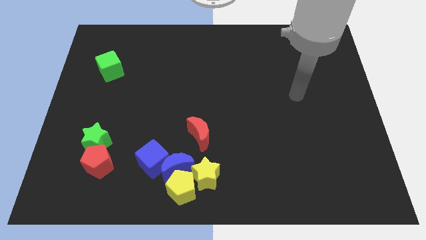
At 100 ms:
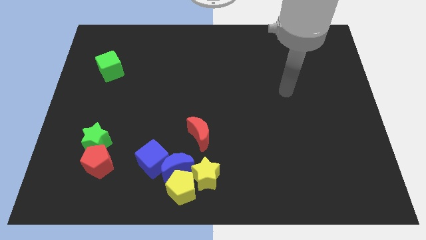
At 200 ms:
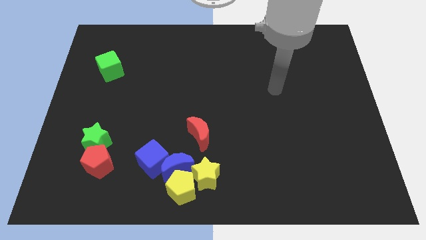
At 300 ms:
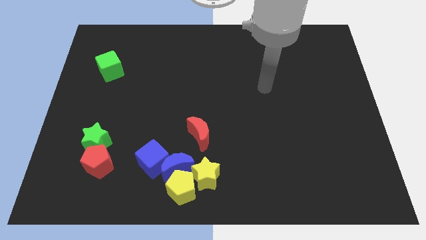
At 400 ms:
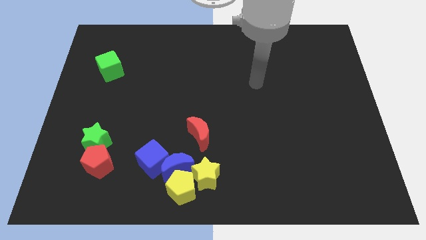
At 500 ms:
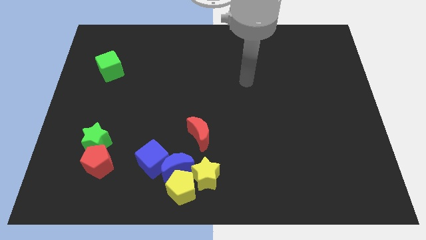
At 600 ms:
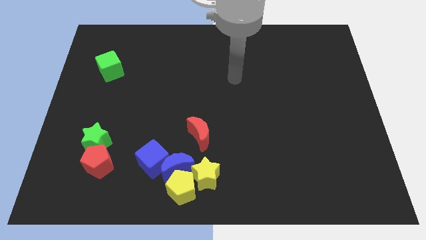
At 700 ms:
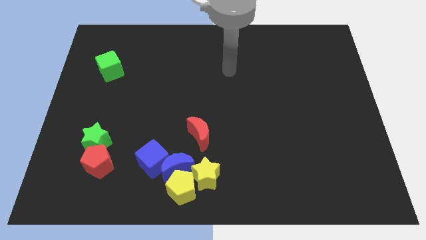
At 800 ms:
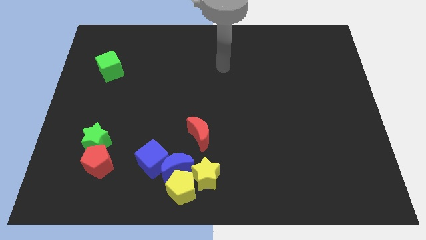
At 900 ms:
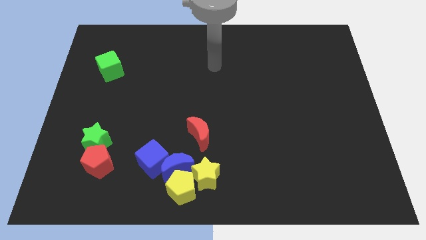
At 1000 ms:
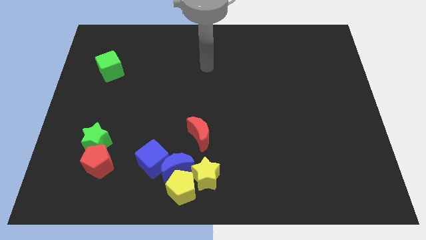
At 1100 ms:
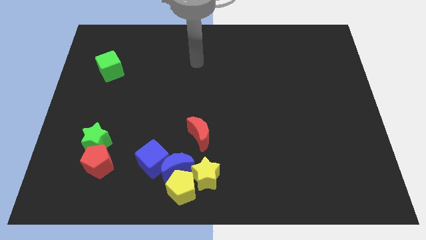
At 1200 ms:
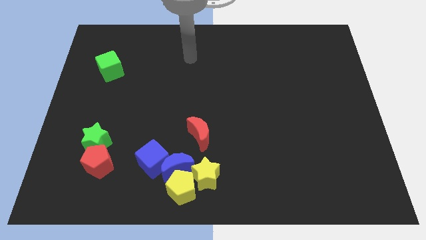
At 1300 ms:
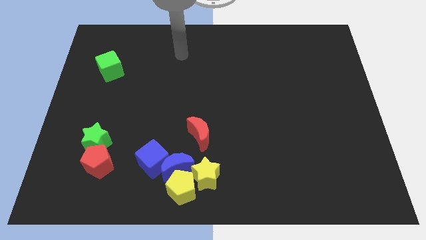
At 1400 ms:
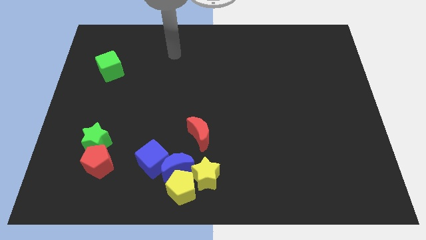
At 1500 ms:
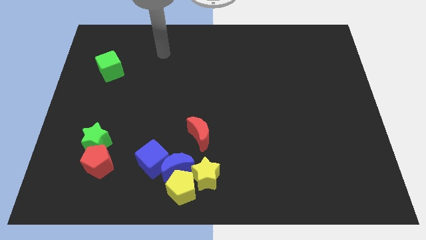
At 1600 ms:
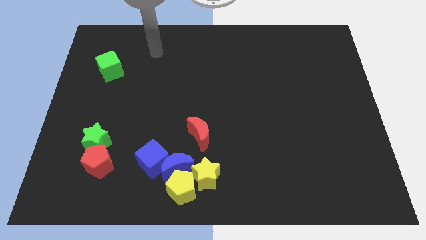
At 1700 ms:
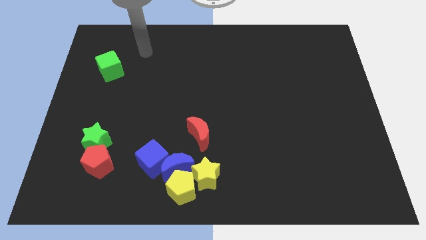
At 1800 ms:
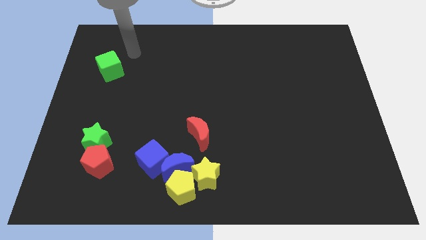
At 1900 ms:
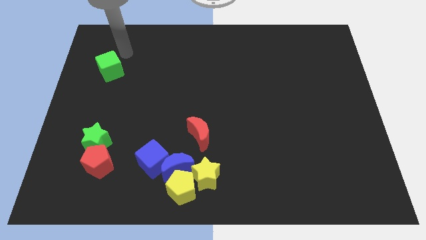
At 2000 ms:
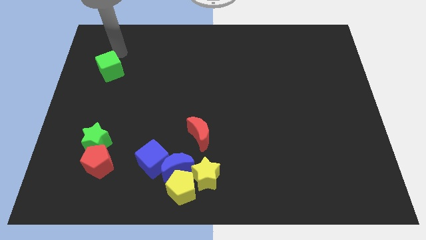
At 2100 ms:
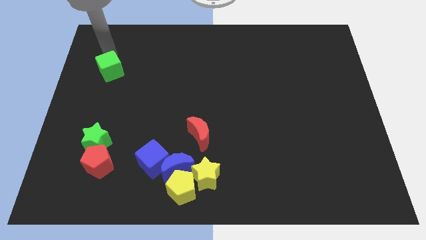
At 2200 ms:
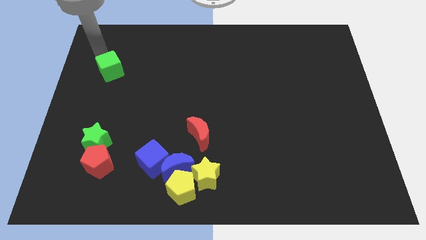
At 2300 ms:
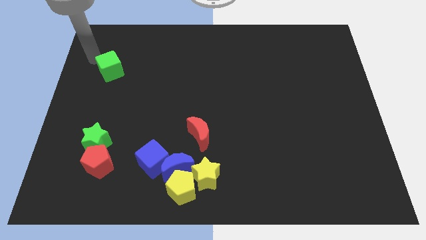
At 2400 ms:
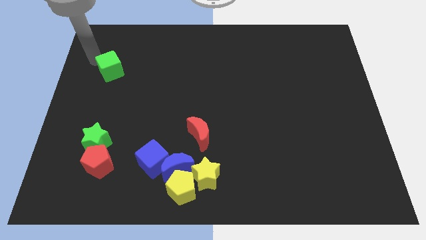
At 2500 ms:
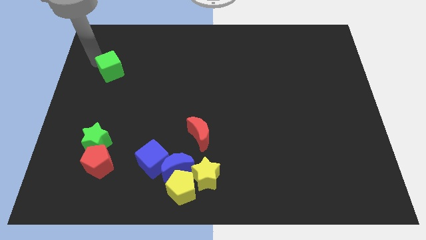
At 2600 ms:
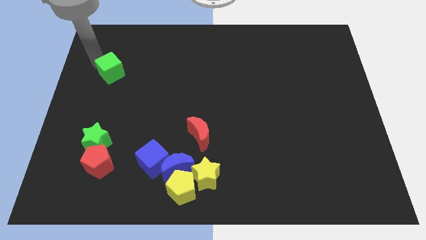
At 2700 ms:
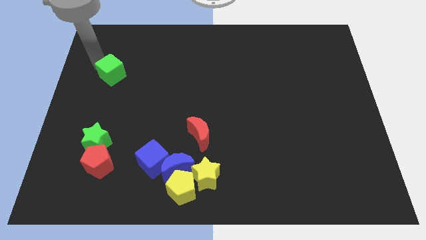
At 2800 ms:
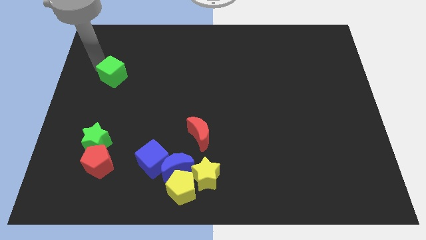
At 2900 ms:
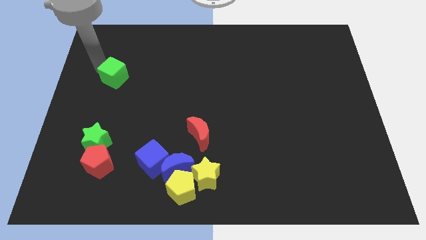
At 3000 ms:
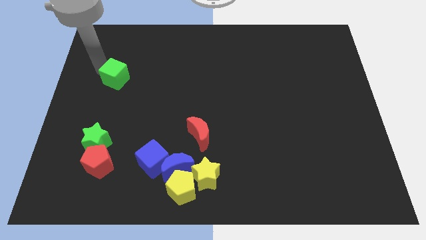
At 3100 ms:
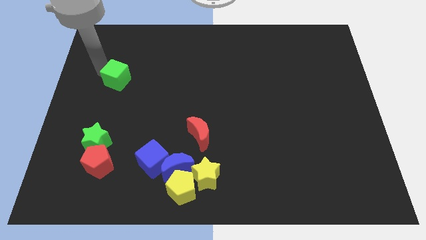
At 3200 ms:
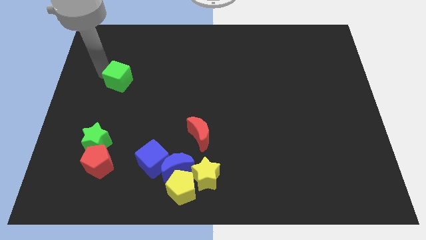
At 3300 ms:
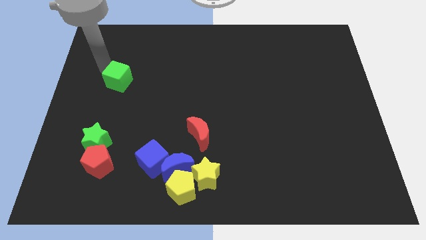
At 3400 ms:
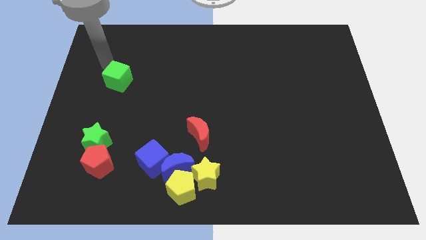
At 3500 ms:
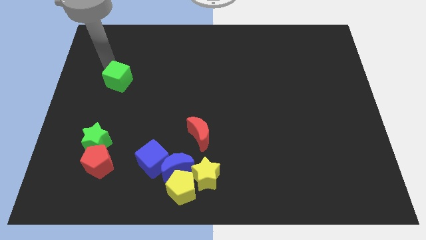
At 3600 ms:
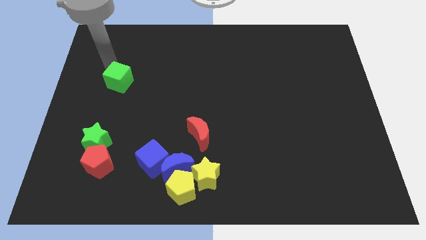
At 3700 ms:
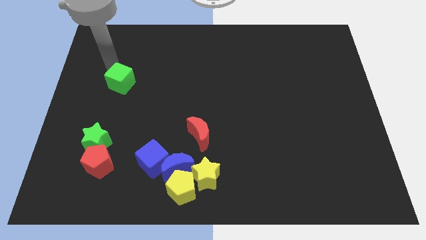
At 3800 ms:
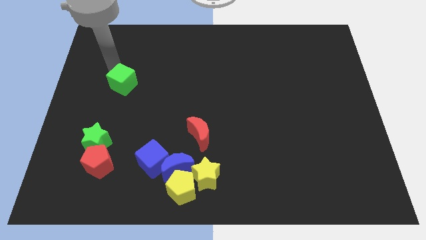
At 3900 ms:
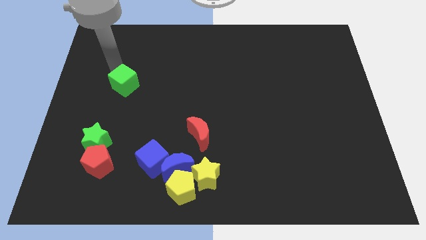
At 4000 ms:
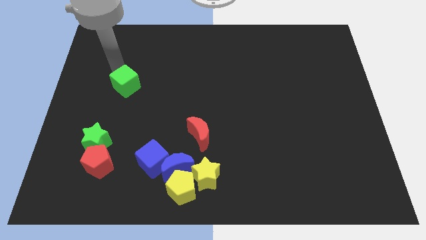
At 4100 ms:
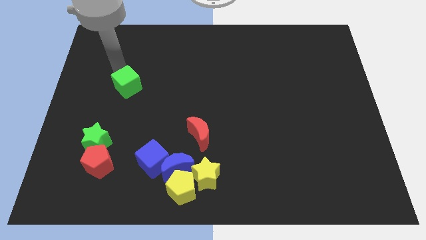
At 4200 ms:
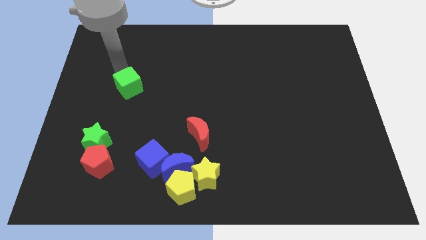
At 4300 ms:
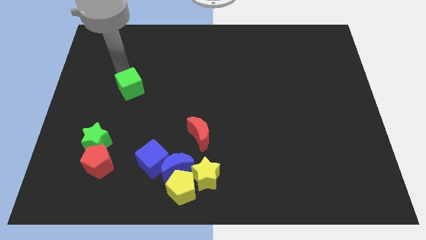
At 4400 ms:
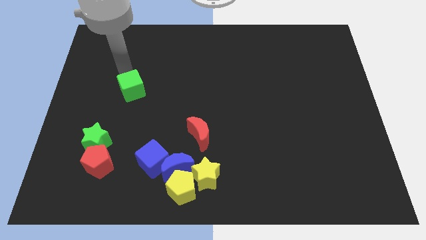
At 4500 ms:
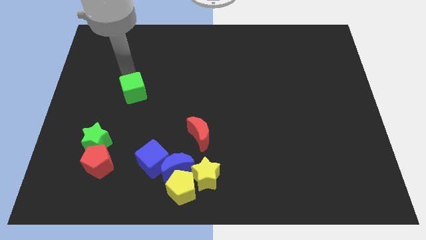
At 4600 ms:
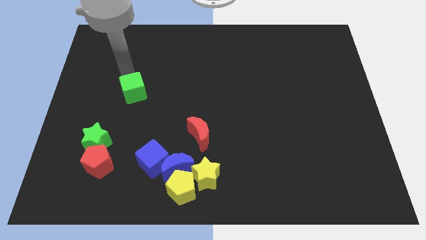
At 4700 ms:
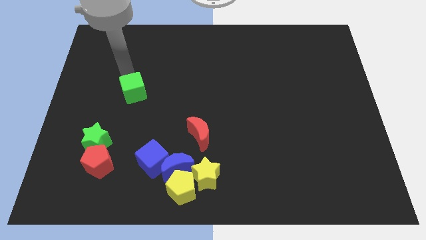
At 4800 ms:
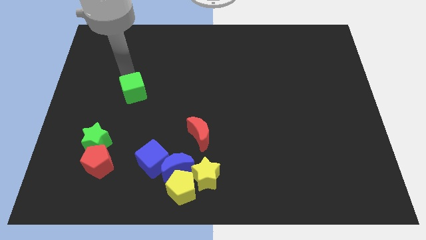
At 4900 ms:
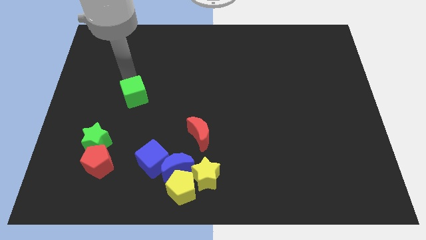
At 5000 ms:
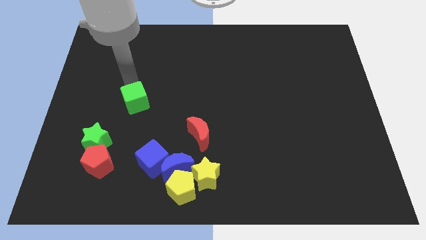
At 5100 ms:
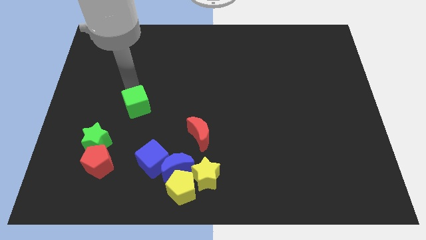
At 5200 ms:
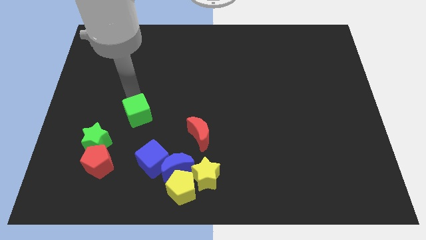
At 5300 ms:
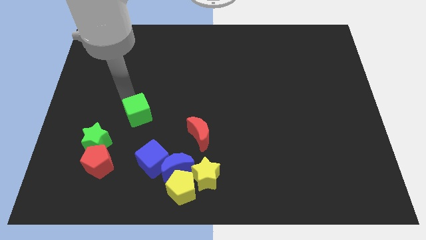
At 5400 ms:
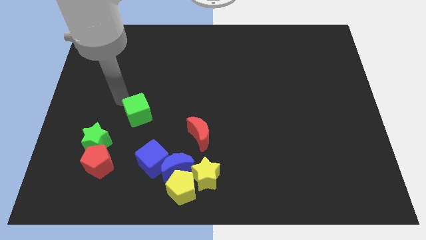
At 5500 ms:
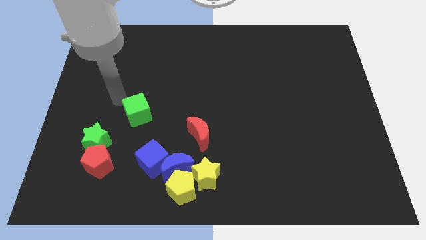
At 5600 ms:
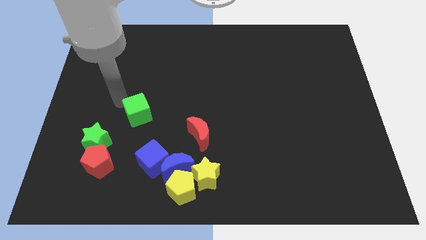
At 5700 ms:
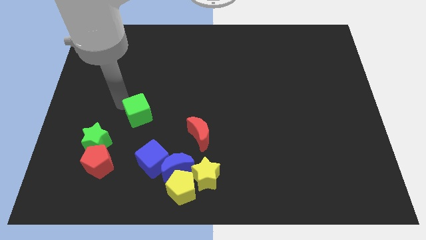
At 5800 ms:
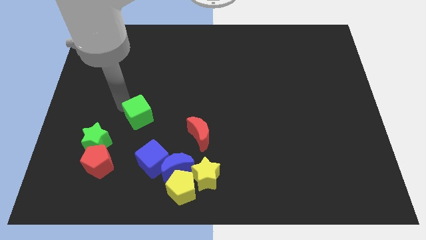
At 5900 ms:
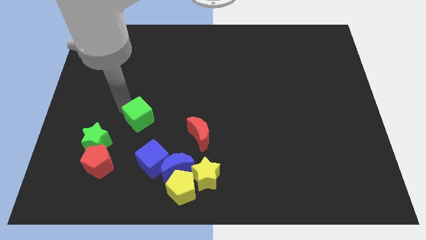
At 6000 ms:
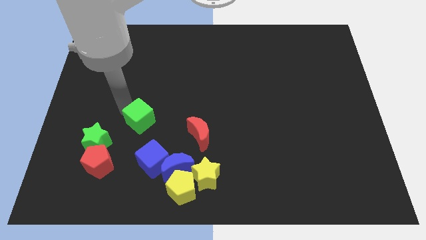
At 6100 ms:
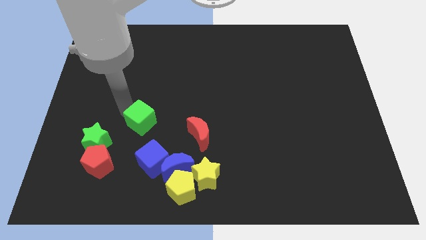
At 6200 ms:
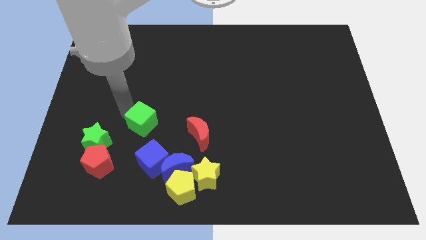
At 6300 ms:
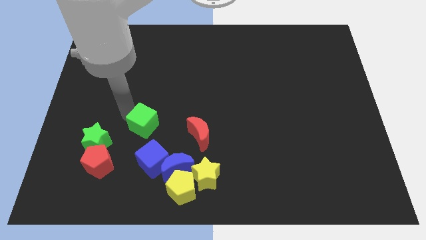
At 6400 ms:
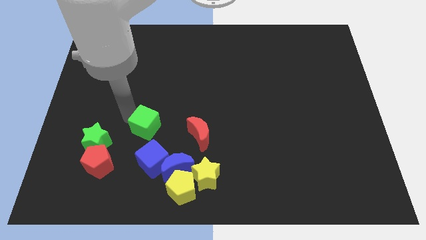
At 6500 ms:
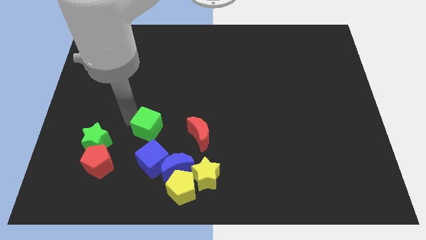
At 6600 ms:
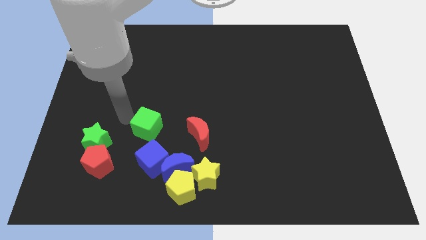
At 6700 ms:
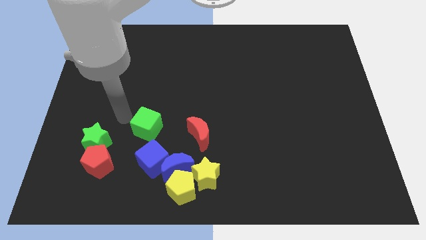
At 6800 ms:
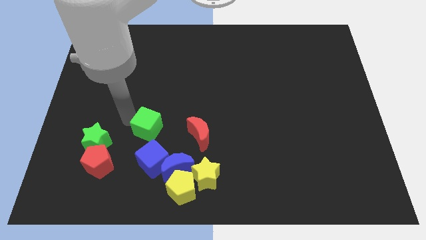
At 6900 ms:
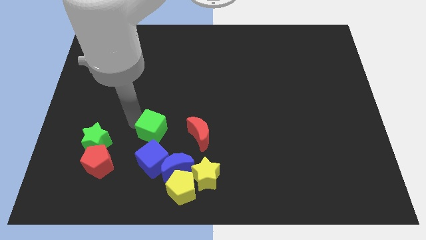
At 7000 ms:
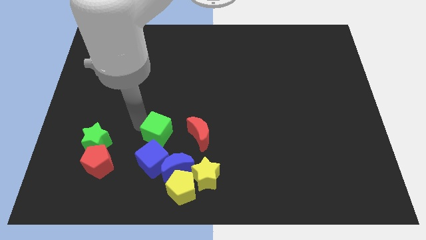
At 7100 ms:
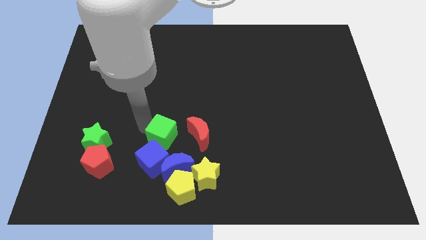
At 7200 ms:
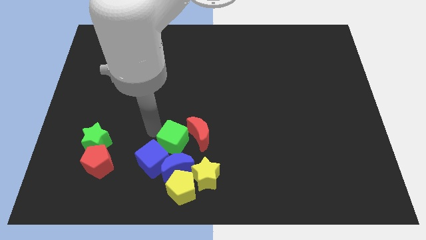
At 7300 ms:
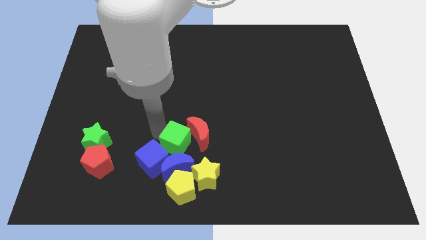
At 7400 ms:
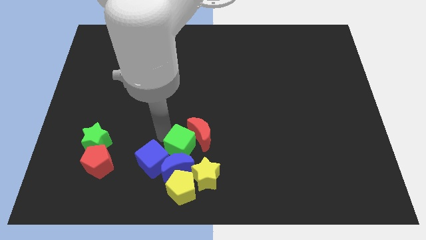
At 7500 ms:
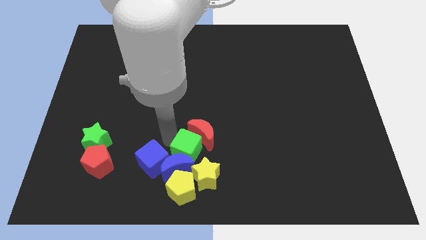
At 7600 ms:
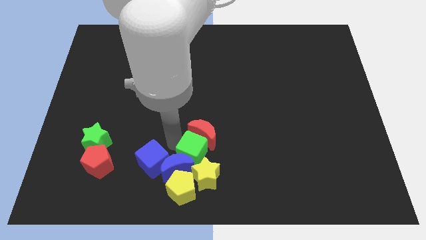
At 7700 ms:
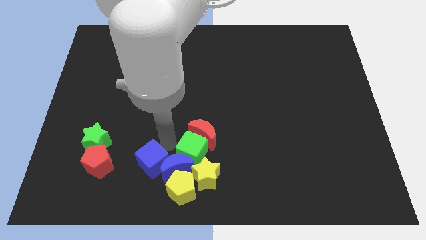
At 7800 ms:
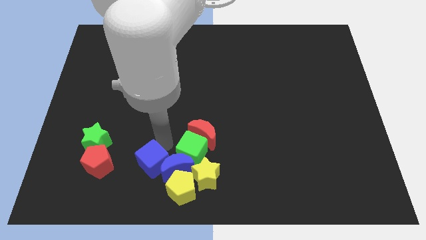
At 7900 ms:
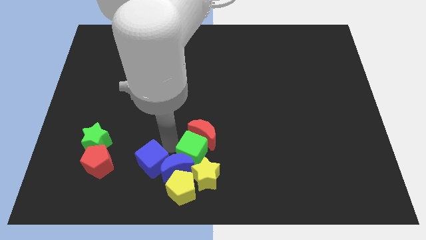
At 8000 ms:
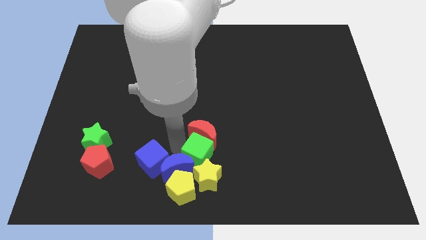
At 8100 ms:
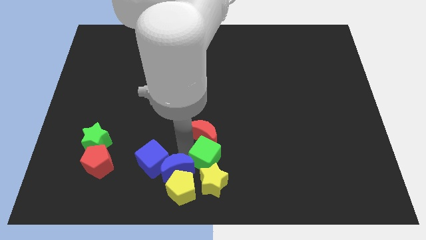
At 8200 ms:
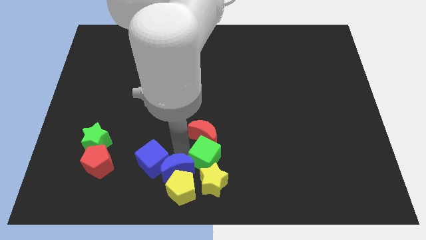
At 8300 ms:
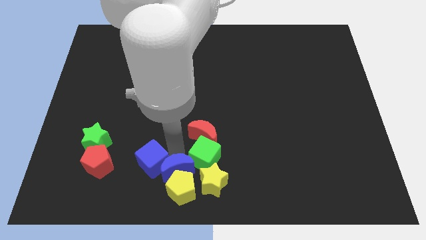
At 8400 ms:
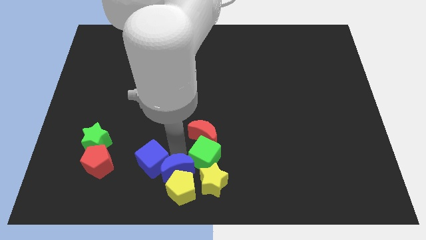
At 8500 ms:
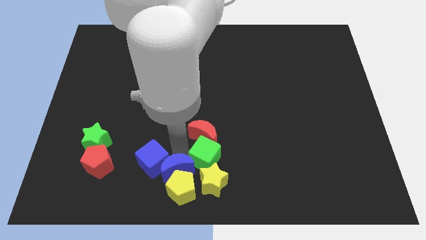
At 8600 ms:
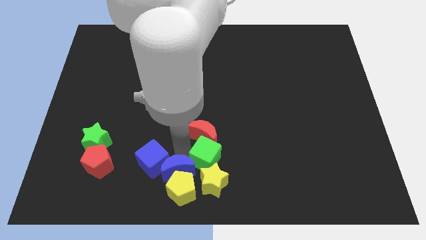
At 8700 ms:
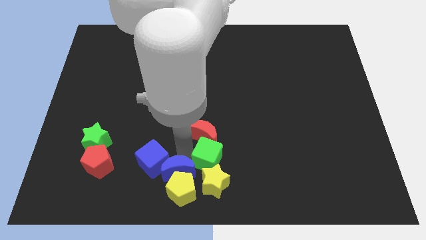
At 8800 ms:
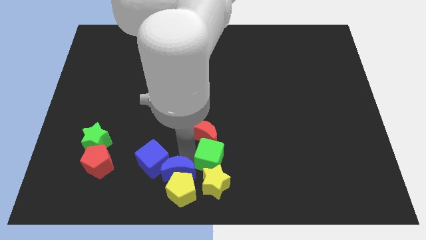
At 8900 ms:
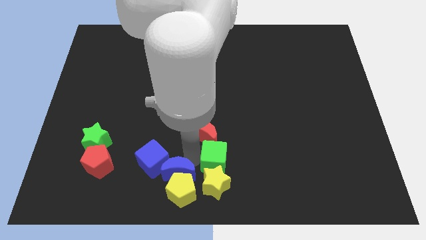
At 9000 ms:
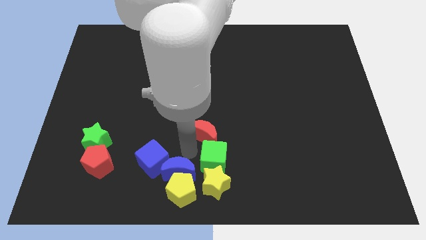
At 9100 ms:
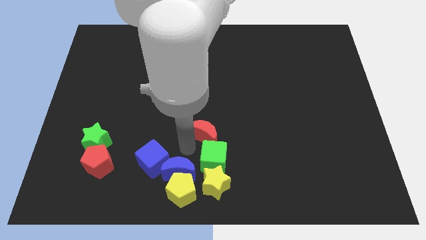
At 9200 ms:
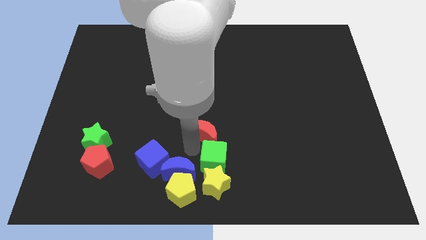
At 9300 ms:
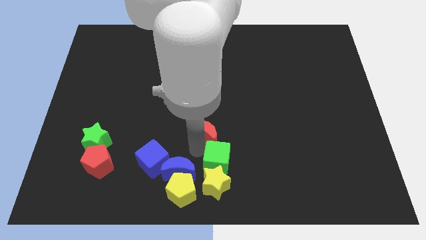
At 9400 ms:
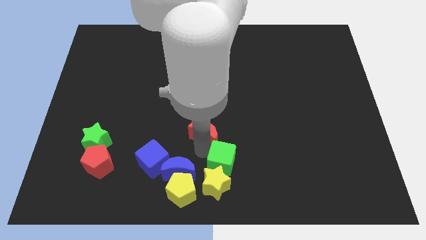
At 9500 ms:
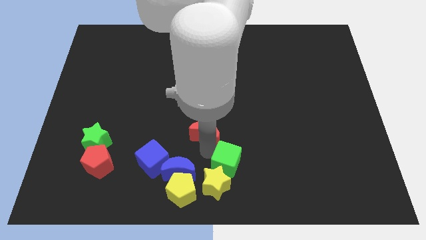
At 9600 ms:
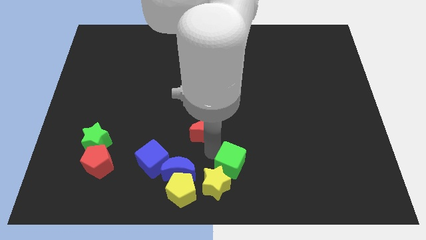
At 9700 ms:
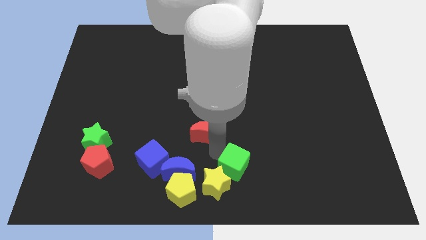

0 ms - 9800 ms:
move the green cube to the right side of the yellow star
